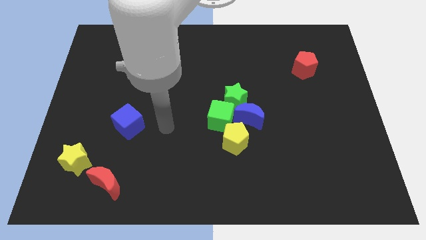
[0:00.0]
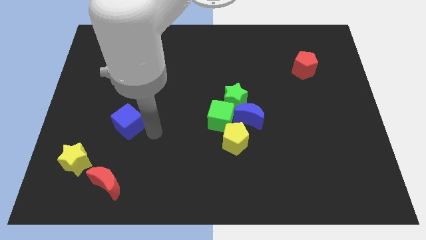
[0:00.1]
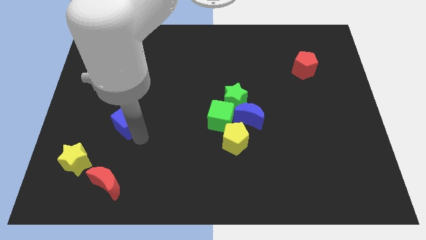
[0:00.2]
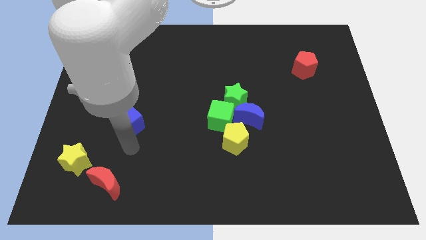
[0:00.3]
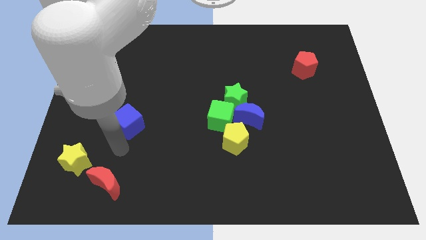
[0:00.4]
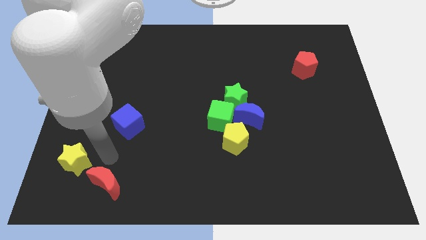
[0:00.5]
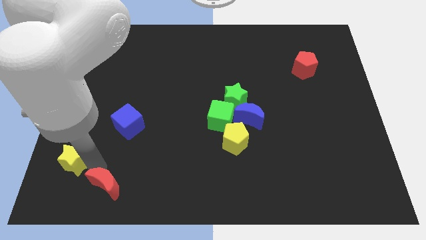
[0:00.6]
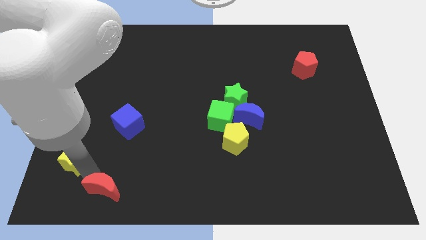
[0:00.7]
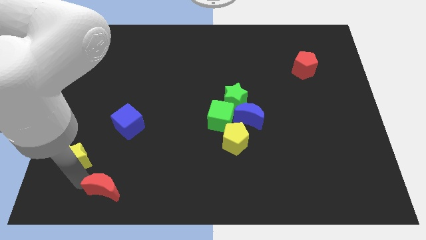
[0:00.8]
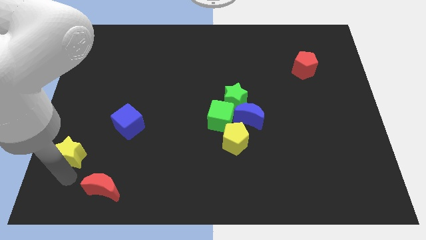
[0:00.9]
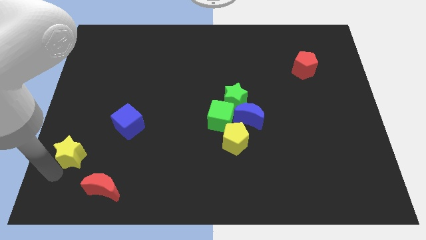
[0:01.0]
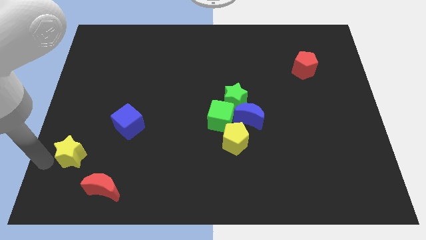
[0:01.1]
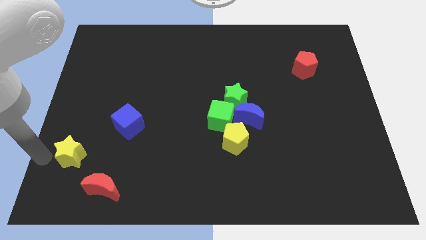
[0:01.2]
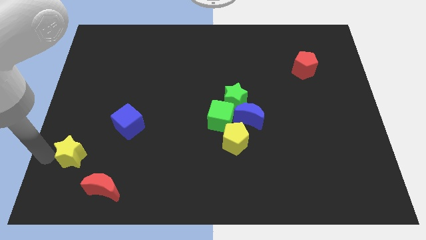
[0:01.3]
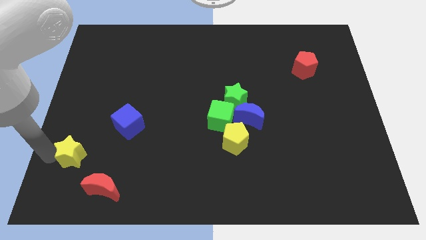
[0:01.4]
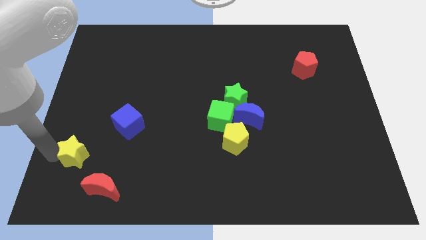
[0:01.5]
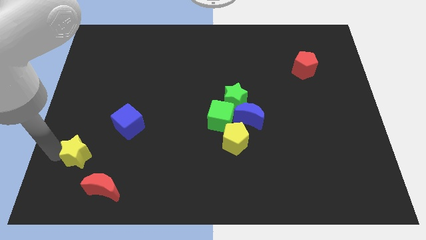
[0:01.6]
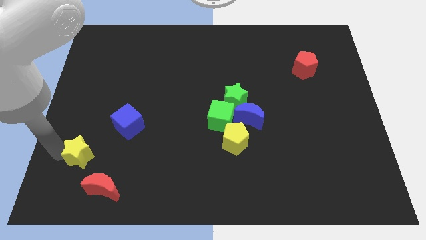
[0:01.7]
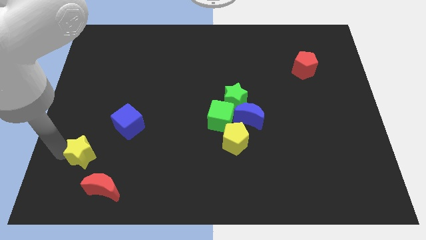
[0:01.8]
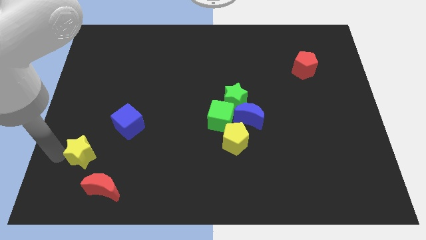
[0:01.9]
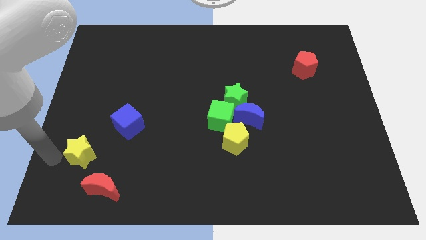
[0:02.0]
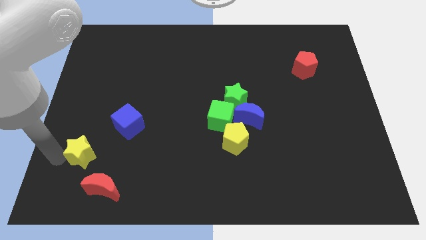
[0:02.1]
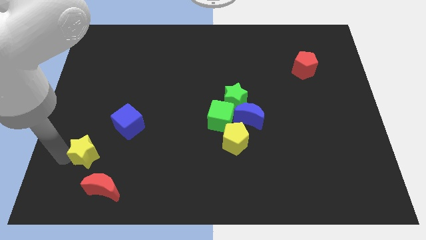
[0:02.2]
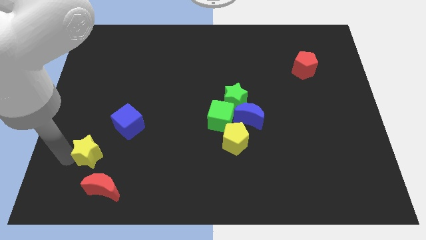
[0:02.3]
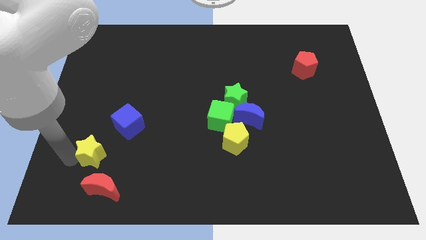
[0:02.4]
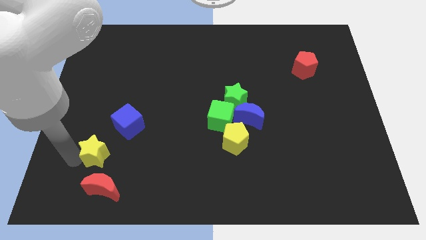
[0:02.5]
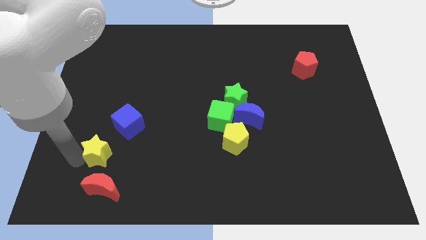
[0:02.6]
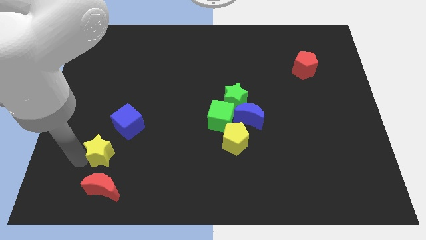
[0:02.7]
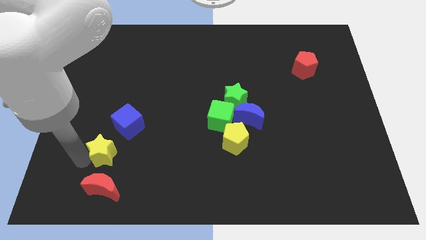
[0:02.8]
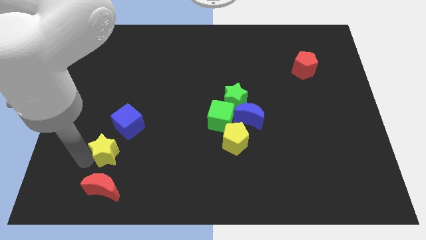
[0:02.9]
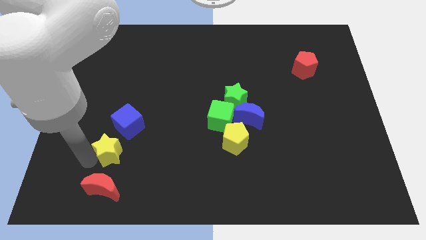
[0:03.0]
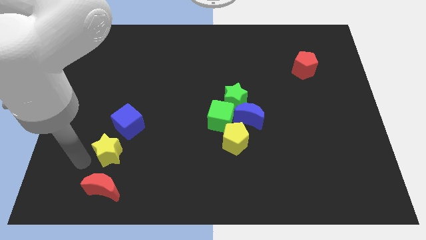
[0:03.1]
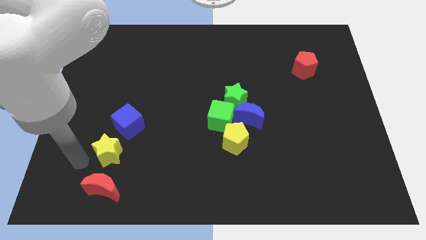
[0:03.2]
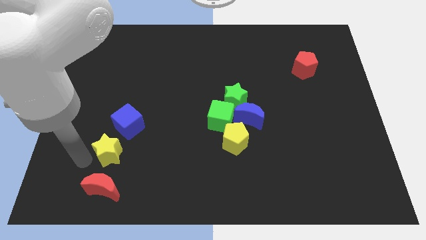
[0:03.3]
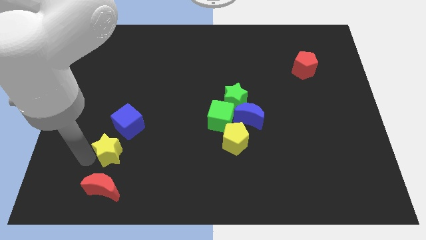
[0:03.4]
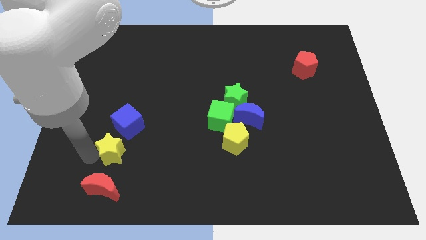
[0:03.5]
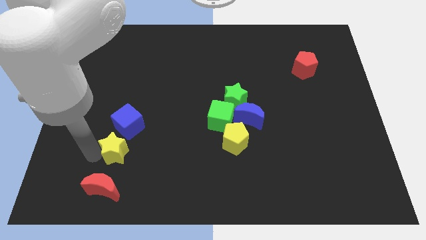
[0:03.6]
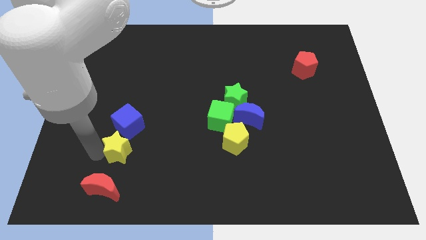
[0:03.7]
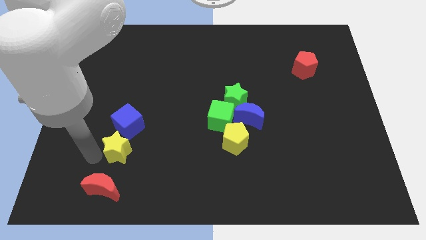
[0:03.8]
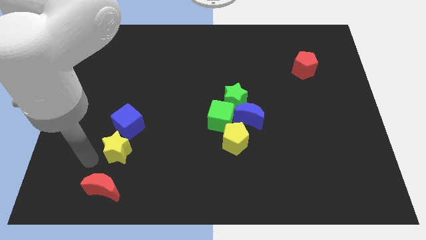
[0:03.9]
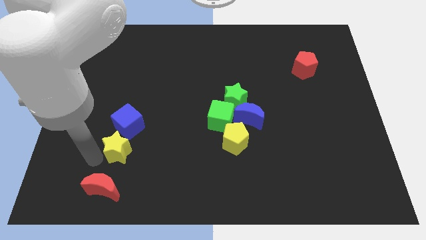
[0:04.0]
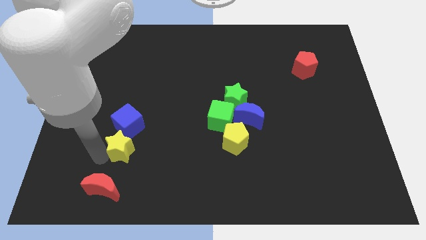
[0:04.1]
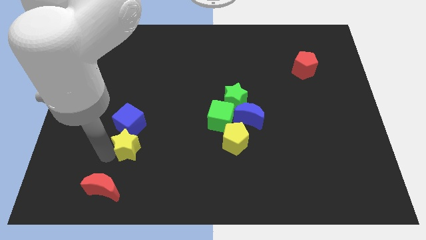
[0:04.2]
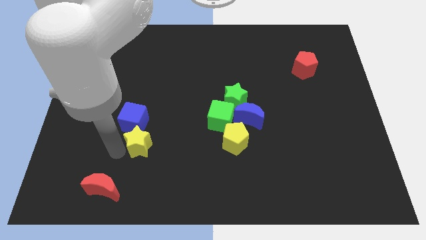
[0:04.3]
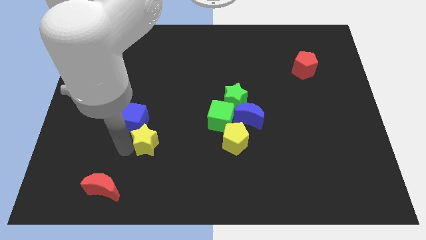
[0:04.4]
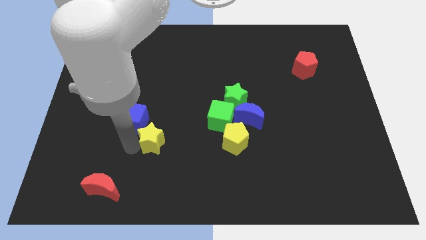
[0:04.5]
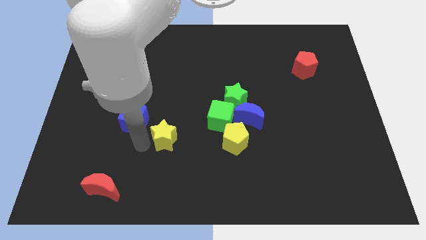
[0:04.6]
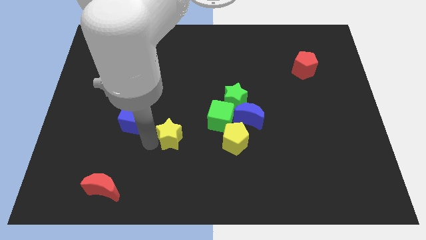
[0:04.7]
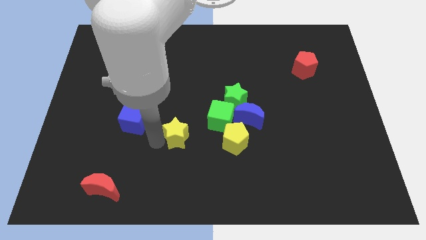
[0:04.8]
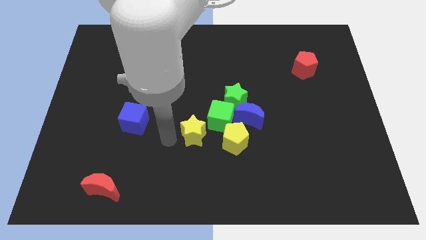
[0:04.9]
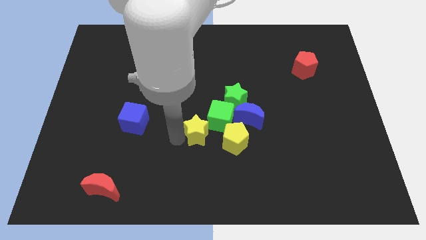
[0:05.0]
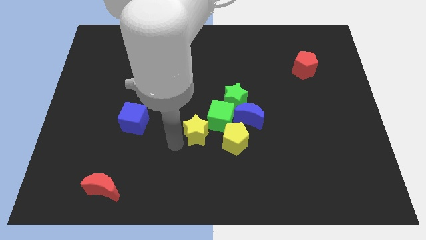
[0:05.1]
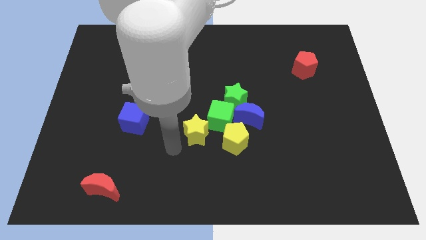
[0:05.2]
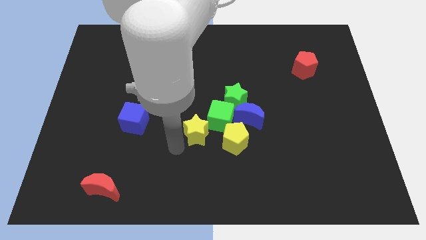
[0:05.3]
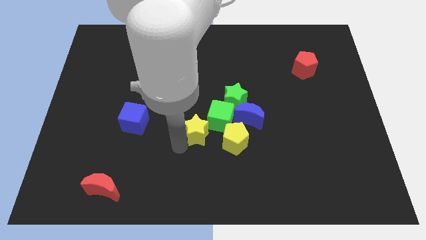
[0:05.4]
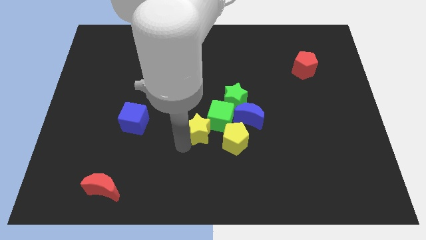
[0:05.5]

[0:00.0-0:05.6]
push the yellow star towards the green cube
